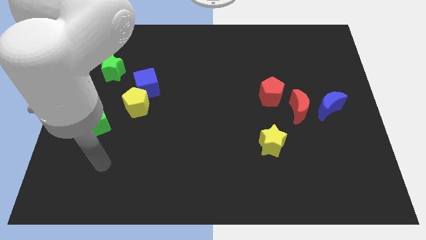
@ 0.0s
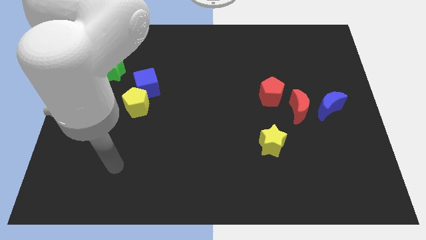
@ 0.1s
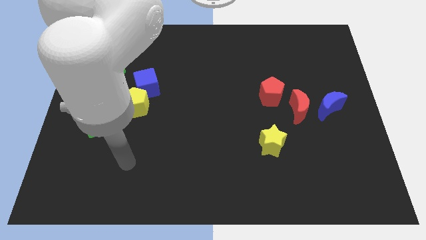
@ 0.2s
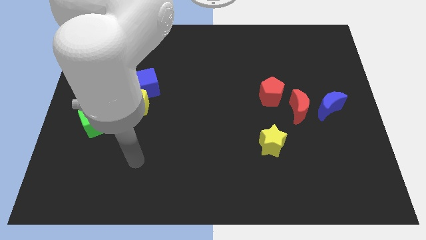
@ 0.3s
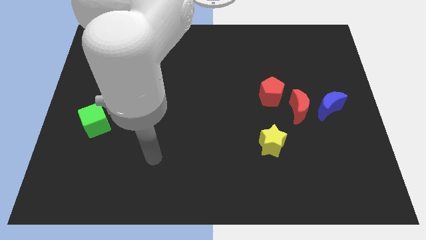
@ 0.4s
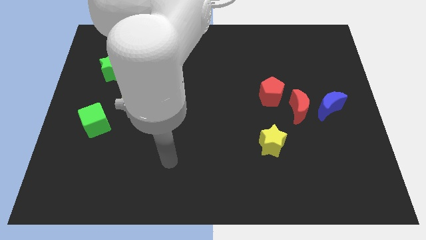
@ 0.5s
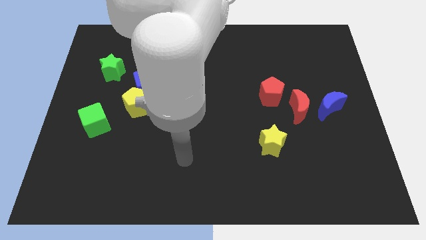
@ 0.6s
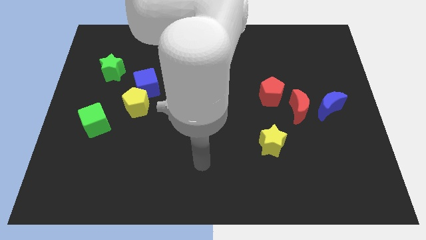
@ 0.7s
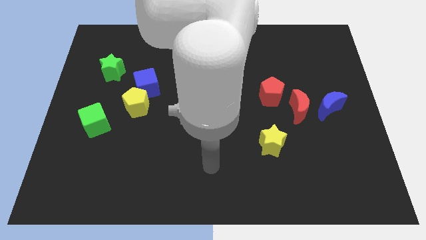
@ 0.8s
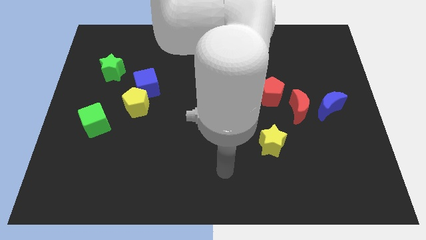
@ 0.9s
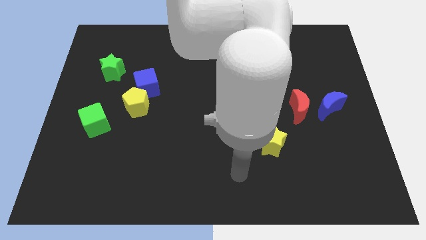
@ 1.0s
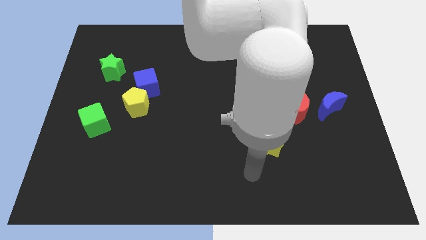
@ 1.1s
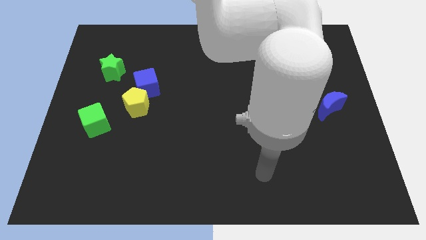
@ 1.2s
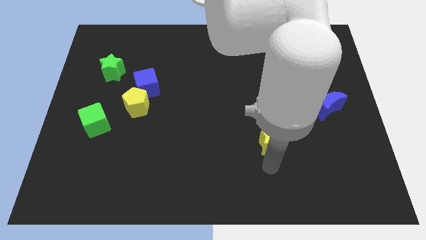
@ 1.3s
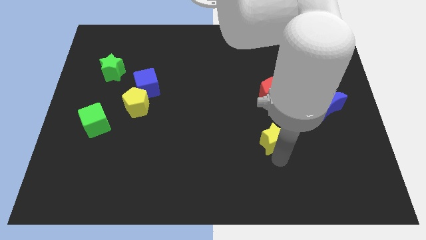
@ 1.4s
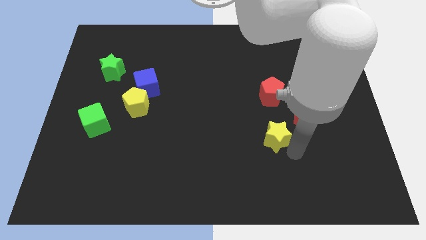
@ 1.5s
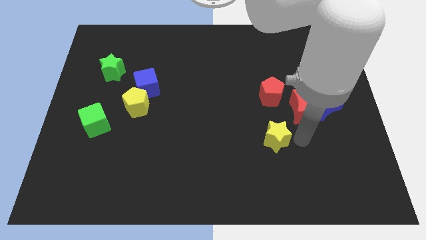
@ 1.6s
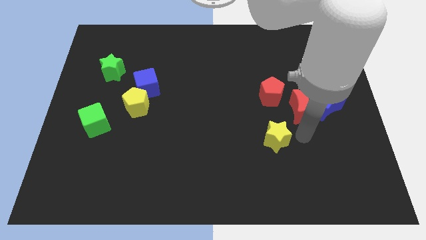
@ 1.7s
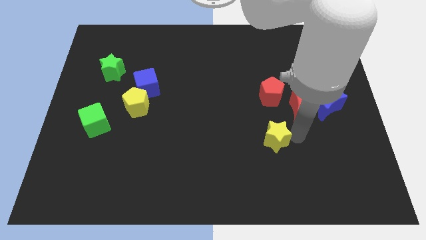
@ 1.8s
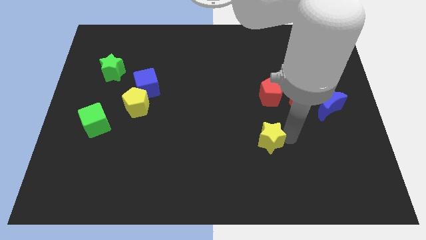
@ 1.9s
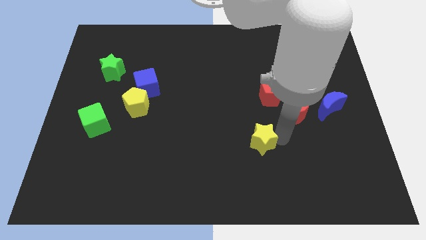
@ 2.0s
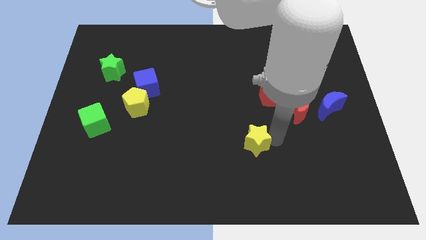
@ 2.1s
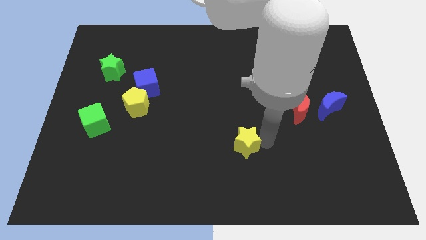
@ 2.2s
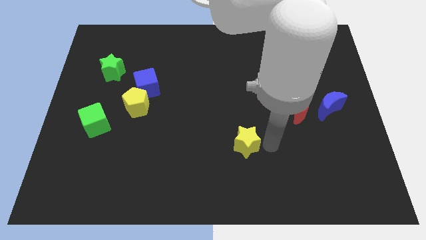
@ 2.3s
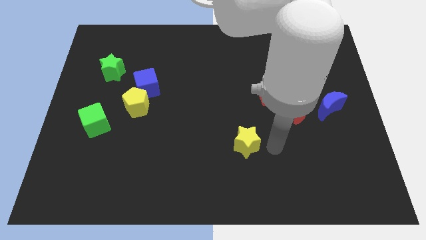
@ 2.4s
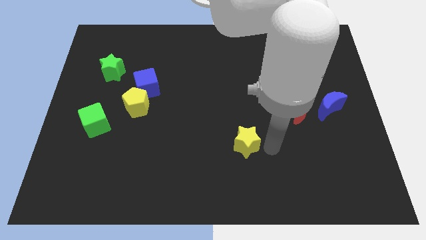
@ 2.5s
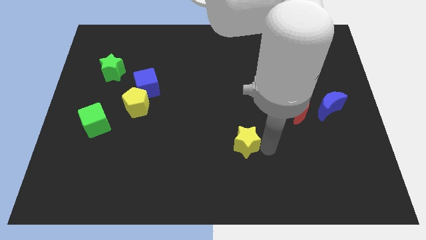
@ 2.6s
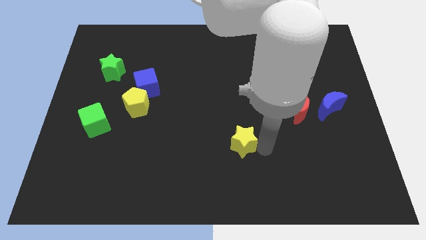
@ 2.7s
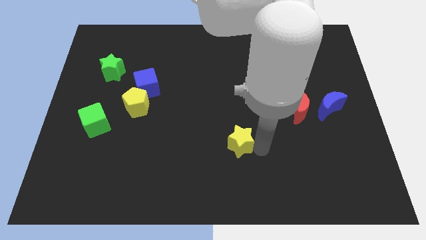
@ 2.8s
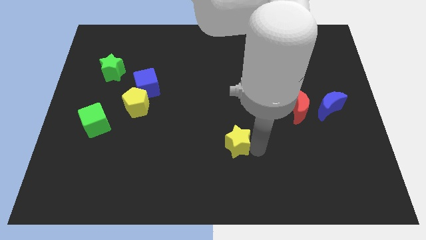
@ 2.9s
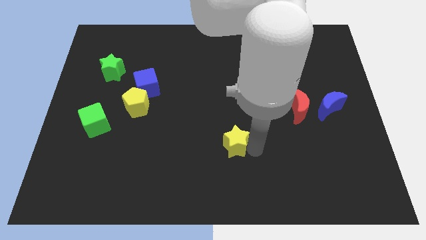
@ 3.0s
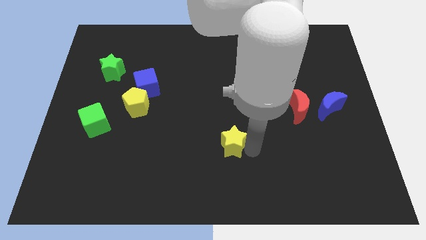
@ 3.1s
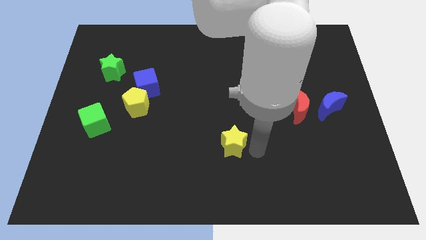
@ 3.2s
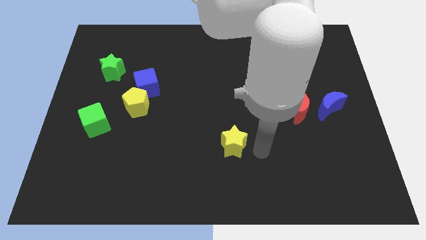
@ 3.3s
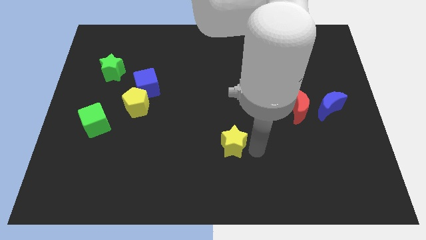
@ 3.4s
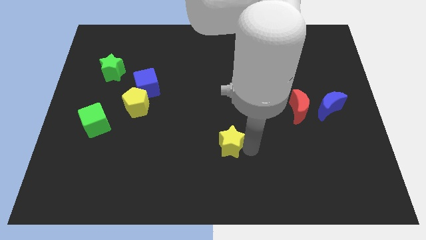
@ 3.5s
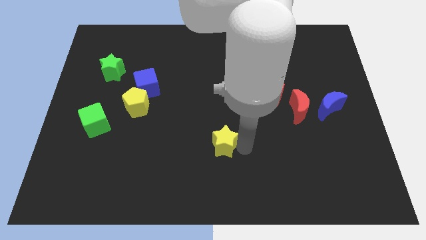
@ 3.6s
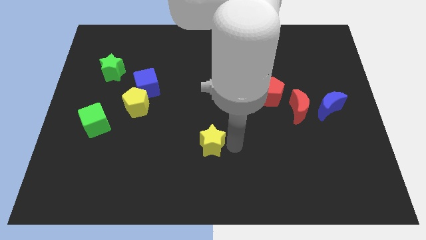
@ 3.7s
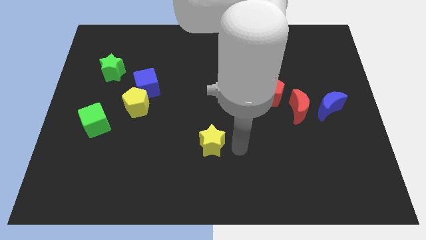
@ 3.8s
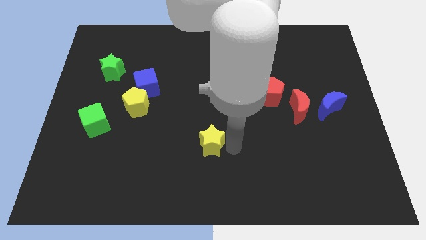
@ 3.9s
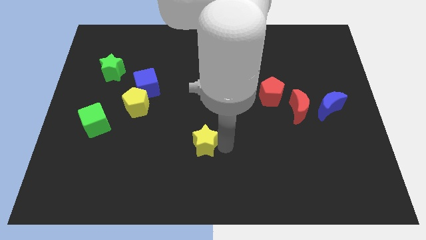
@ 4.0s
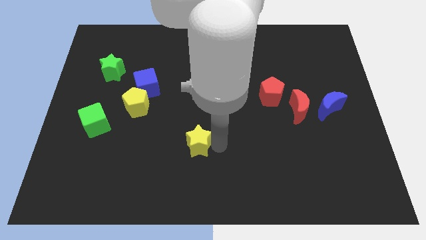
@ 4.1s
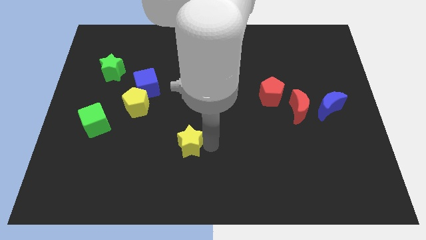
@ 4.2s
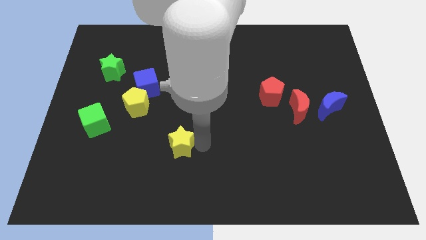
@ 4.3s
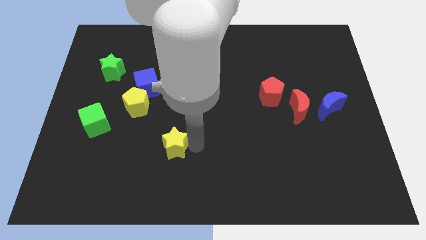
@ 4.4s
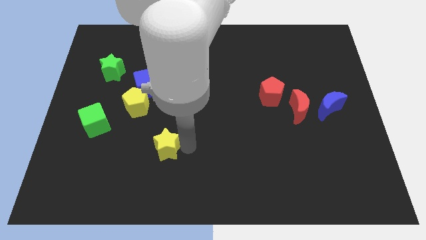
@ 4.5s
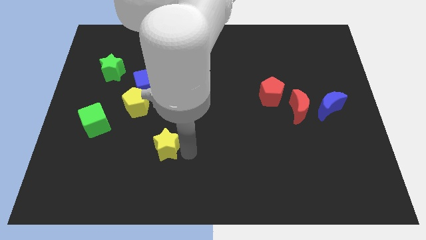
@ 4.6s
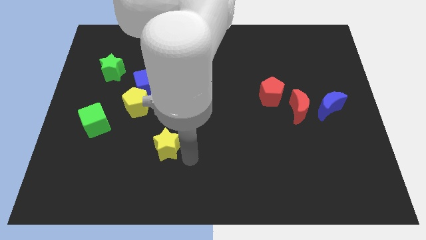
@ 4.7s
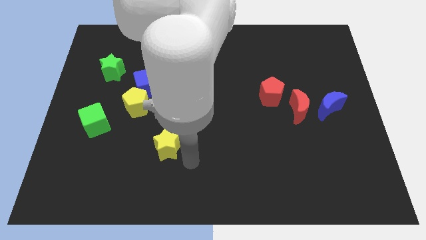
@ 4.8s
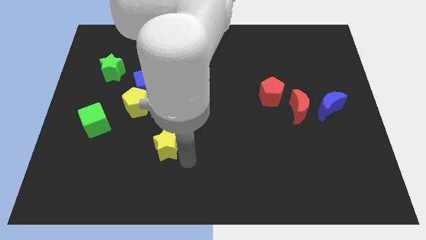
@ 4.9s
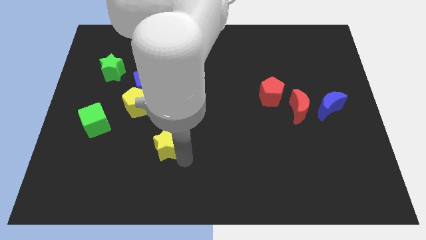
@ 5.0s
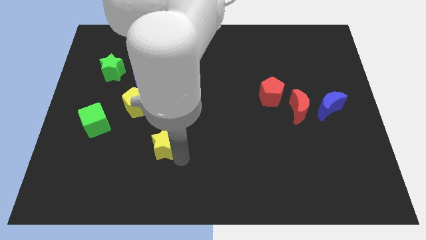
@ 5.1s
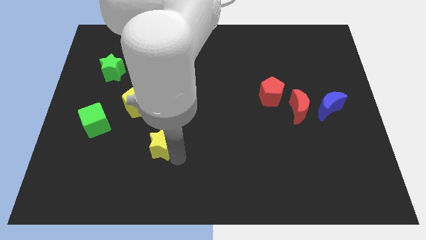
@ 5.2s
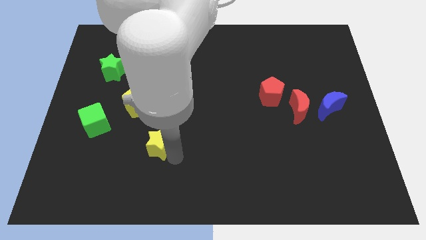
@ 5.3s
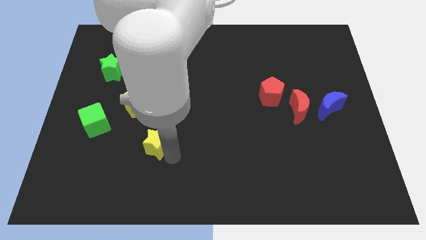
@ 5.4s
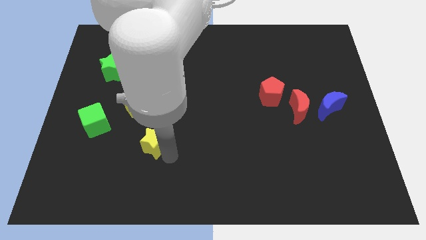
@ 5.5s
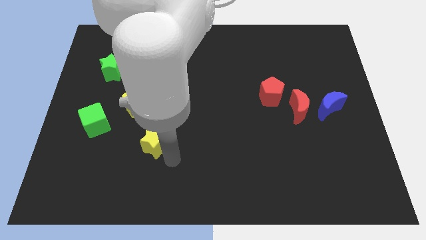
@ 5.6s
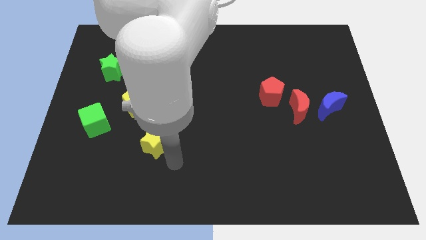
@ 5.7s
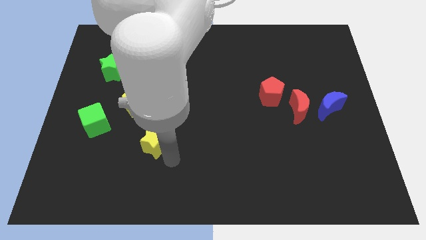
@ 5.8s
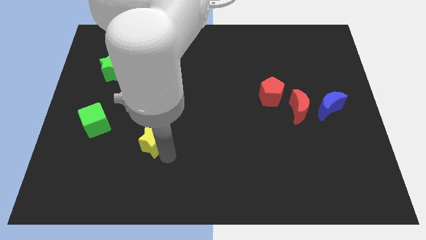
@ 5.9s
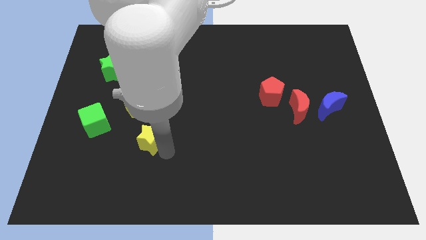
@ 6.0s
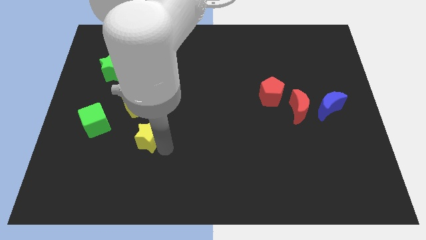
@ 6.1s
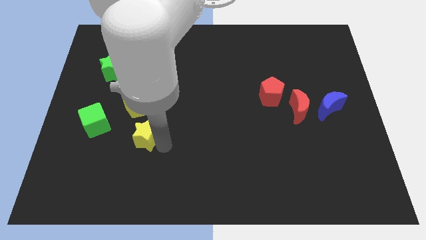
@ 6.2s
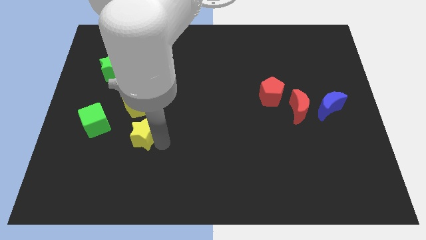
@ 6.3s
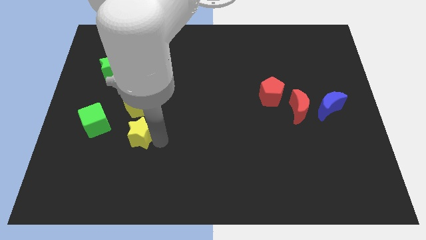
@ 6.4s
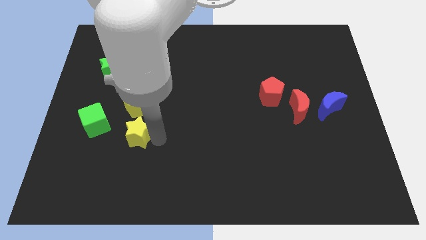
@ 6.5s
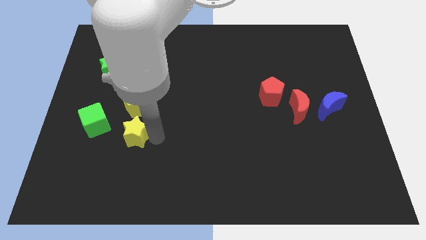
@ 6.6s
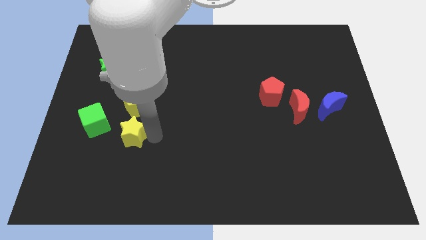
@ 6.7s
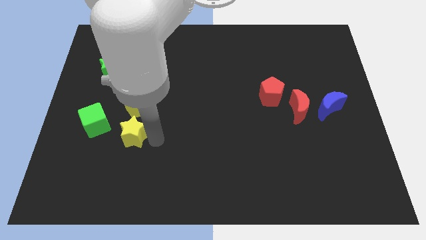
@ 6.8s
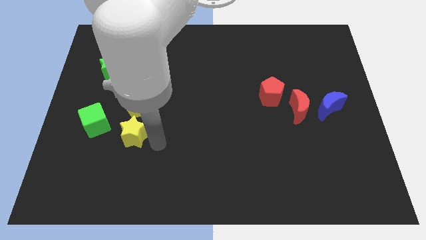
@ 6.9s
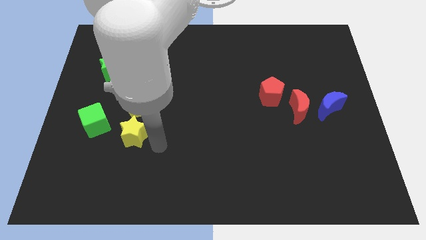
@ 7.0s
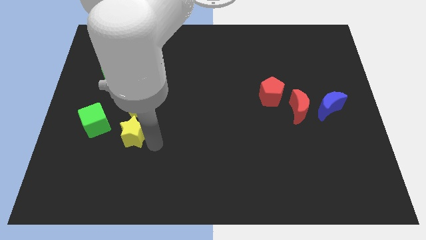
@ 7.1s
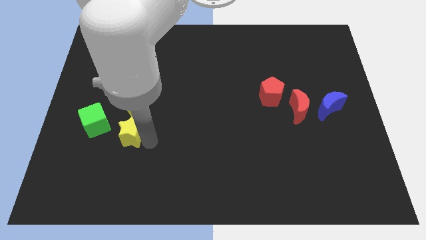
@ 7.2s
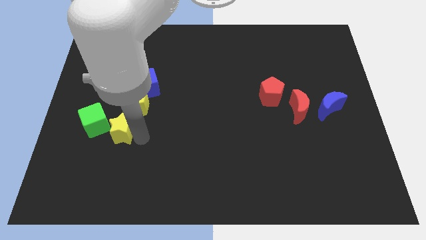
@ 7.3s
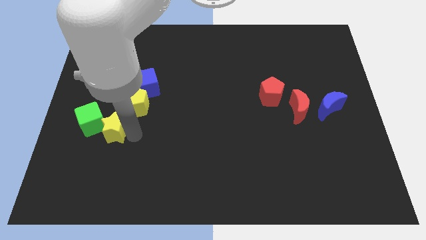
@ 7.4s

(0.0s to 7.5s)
slide the yellow star next to the green cube

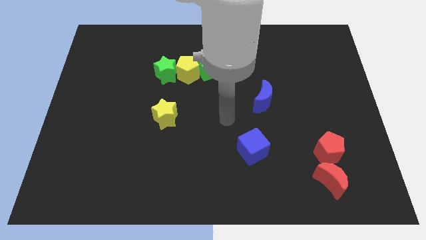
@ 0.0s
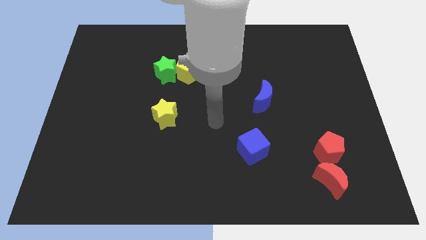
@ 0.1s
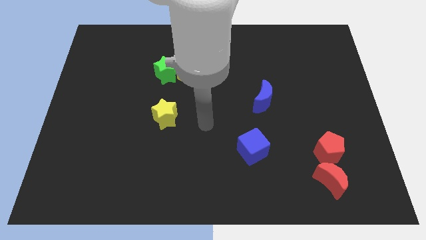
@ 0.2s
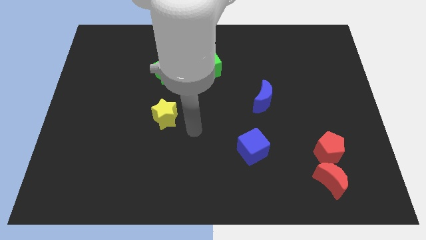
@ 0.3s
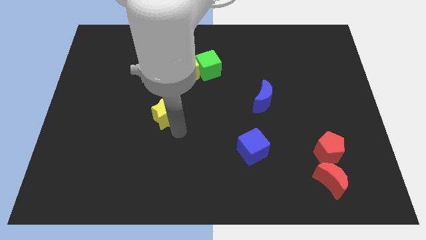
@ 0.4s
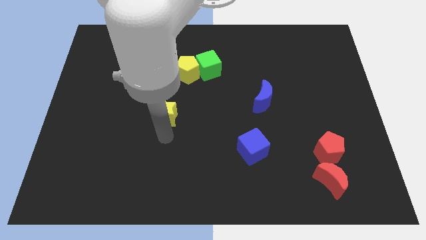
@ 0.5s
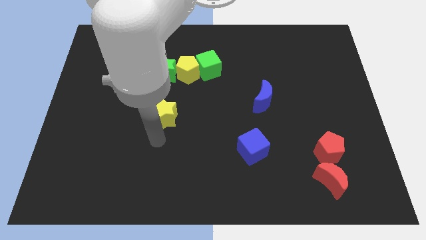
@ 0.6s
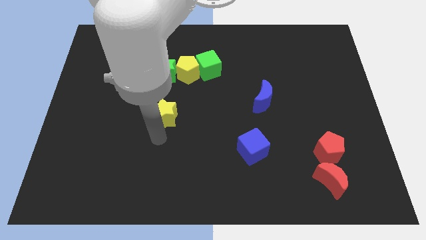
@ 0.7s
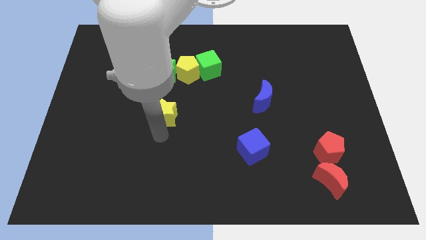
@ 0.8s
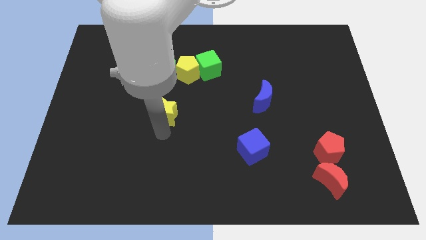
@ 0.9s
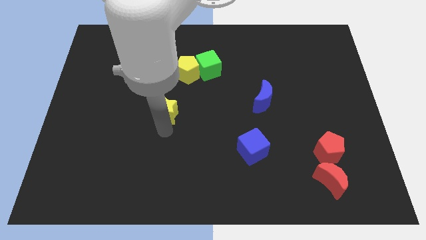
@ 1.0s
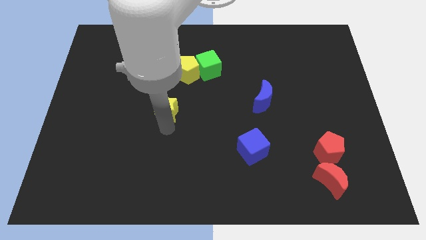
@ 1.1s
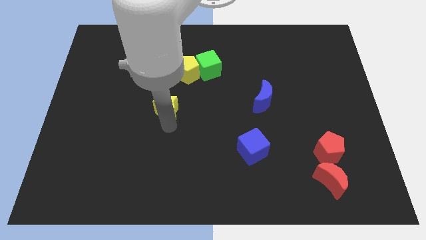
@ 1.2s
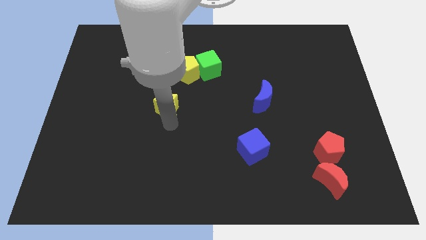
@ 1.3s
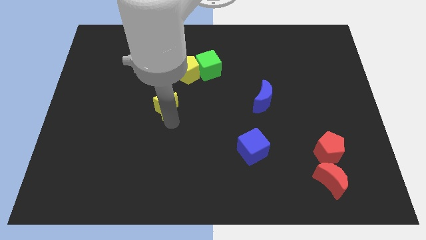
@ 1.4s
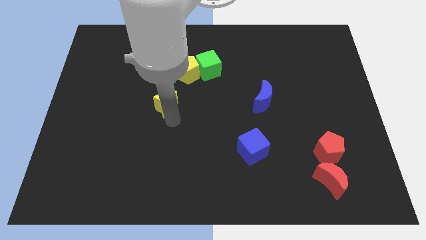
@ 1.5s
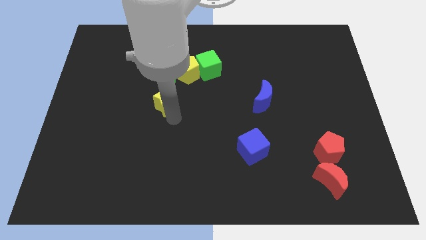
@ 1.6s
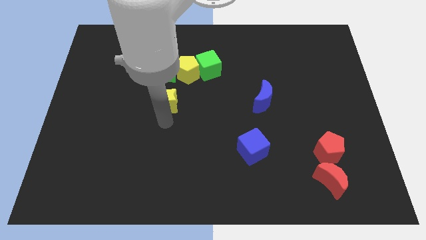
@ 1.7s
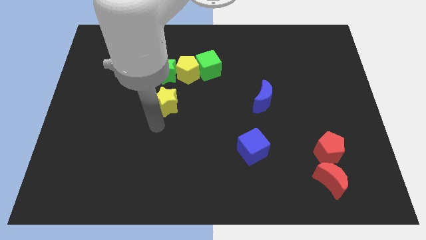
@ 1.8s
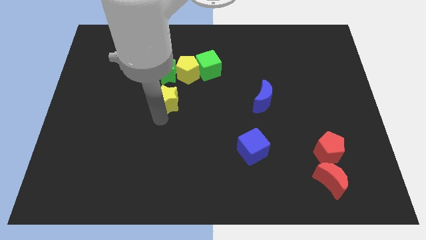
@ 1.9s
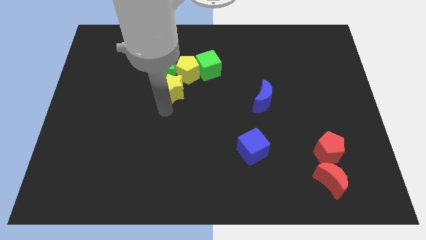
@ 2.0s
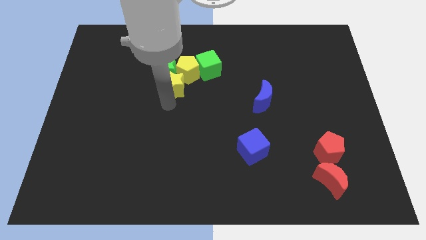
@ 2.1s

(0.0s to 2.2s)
move the yellow star next to the yellow pentagon
